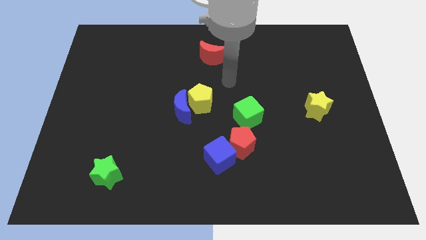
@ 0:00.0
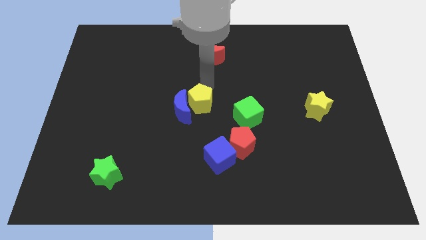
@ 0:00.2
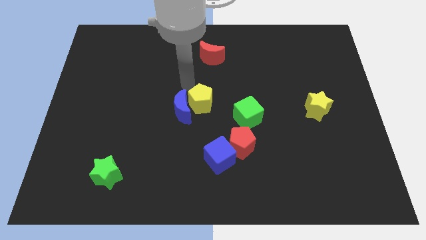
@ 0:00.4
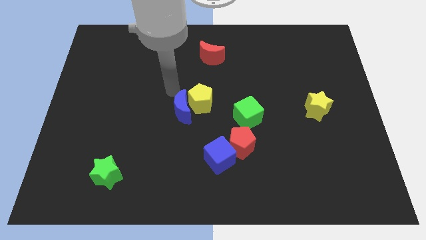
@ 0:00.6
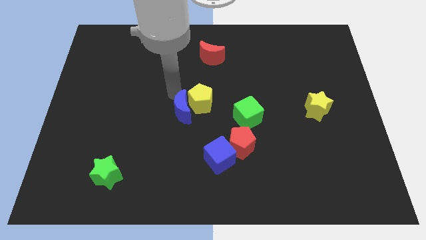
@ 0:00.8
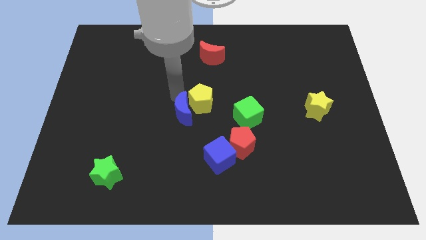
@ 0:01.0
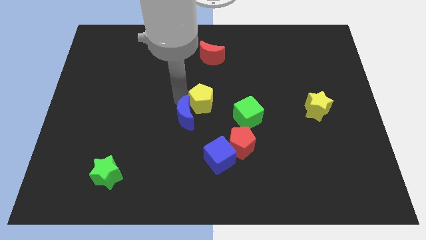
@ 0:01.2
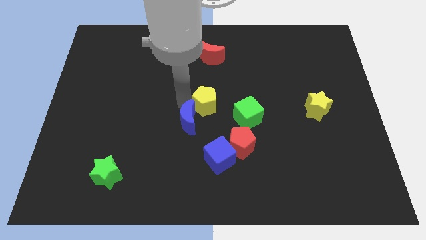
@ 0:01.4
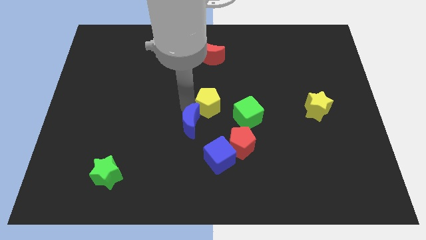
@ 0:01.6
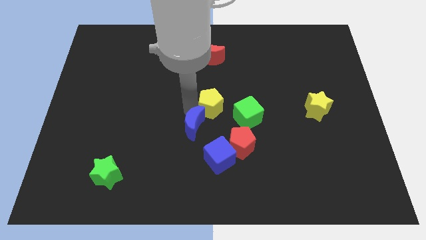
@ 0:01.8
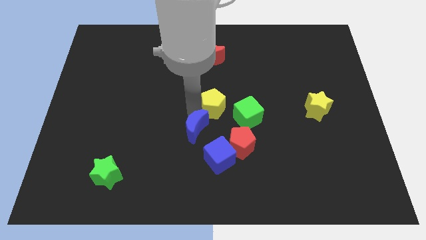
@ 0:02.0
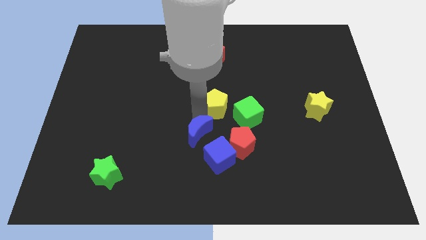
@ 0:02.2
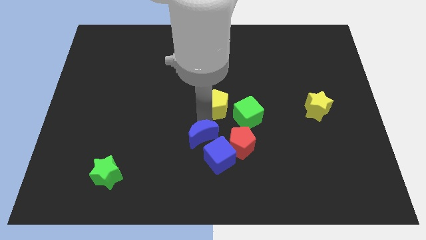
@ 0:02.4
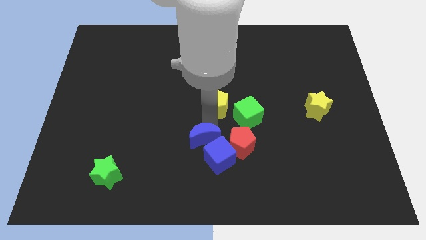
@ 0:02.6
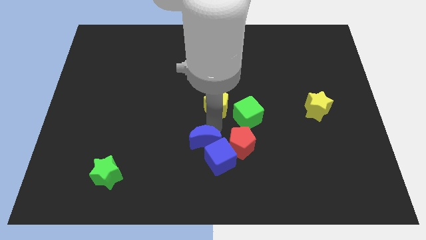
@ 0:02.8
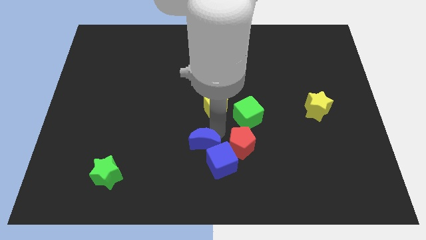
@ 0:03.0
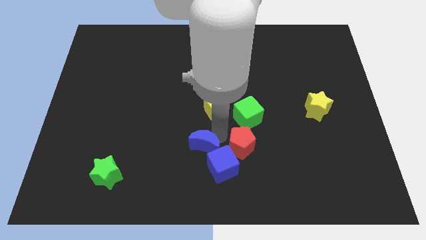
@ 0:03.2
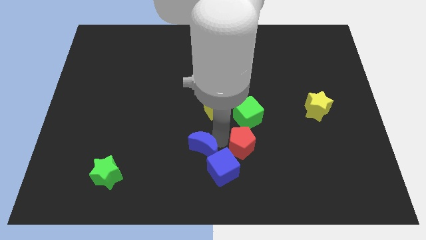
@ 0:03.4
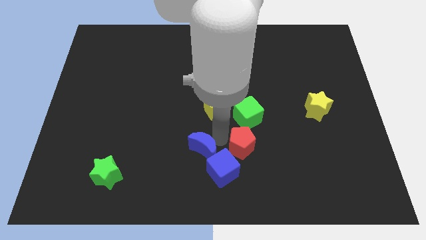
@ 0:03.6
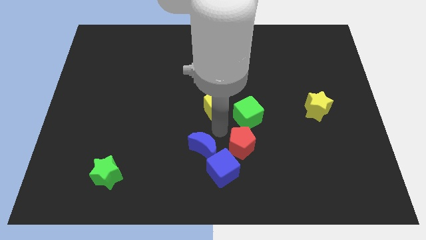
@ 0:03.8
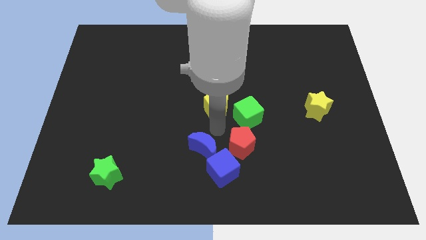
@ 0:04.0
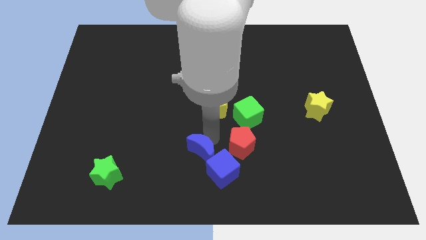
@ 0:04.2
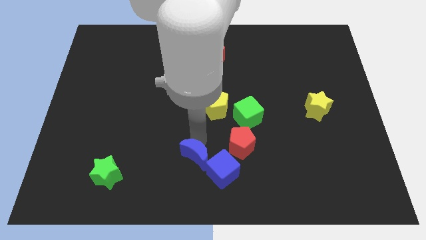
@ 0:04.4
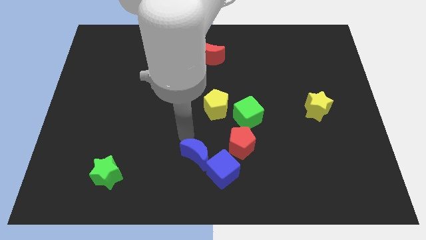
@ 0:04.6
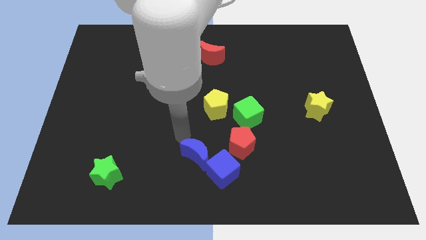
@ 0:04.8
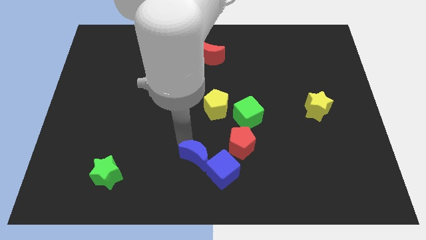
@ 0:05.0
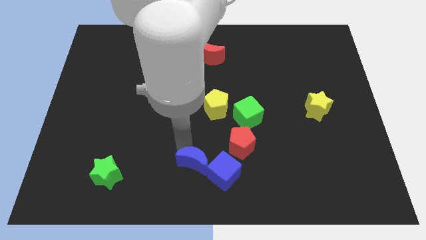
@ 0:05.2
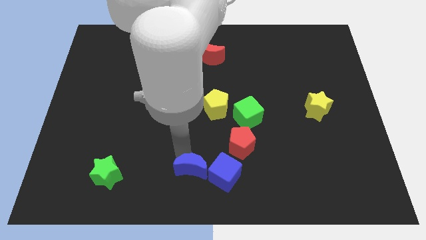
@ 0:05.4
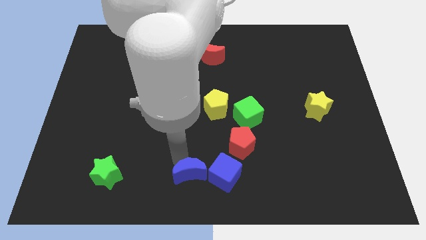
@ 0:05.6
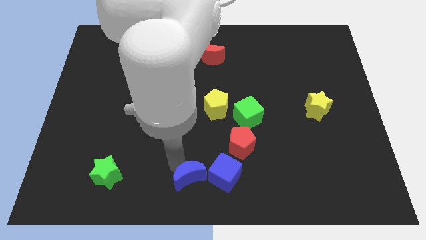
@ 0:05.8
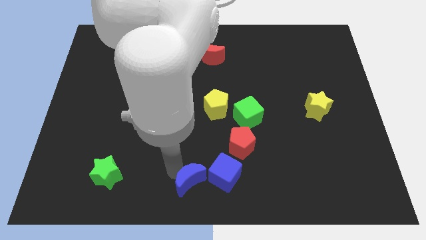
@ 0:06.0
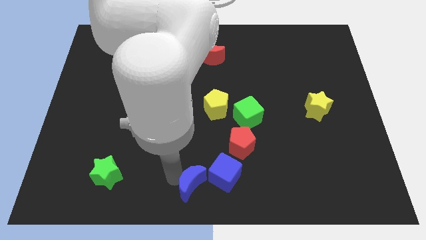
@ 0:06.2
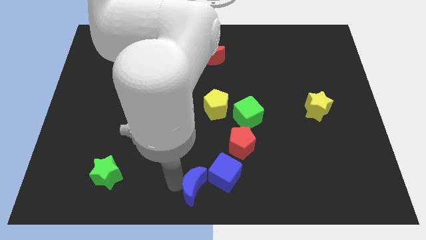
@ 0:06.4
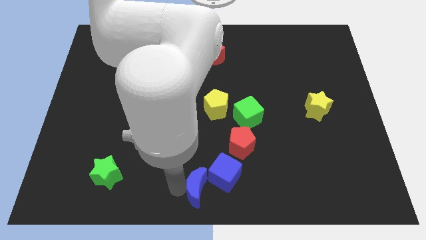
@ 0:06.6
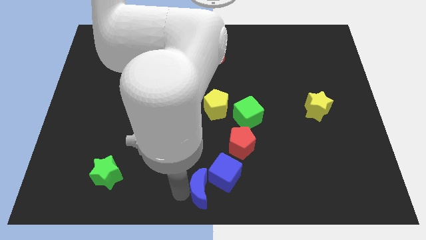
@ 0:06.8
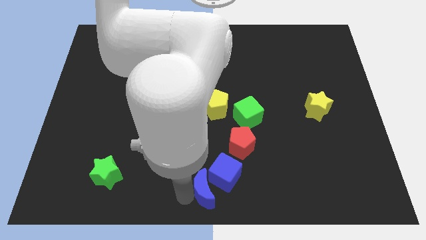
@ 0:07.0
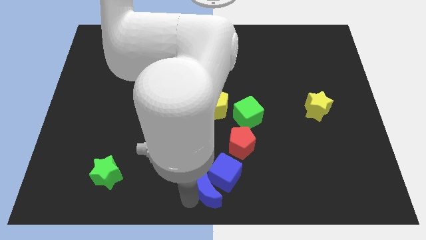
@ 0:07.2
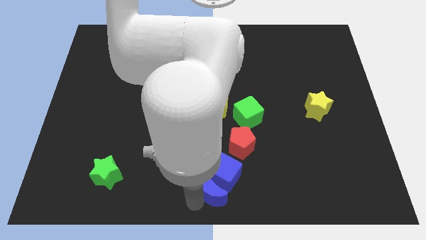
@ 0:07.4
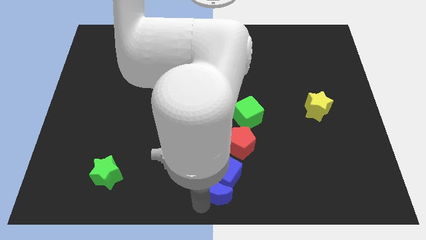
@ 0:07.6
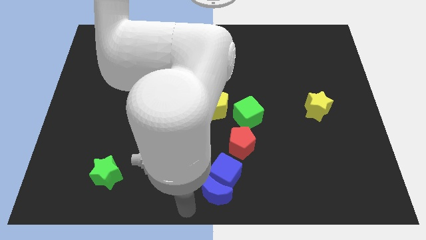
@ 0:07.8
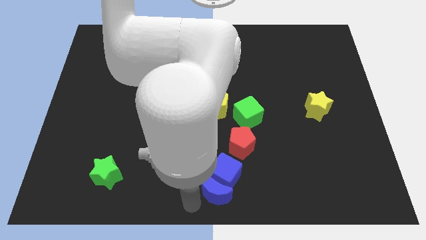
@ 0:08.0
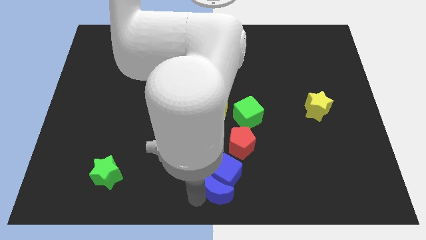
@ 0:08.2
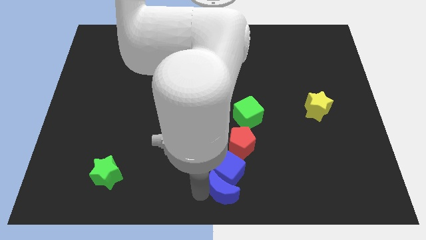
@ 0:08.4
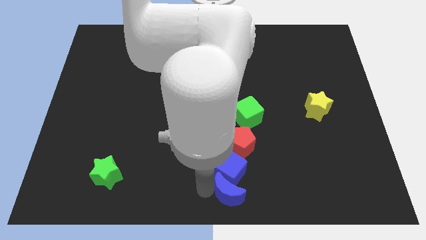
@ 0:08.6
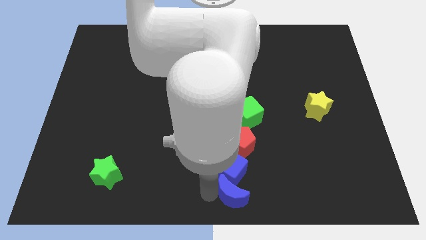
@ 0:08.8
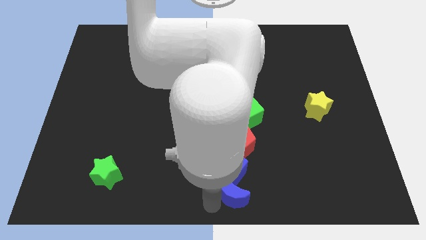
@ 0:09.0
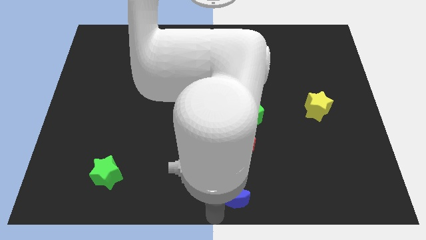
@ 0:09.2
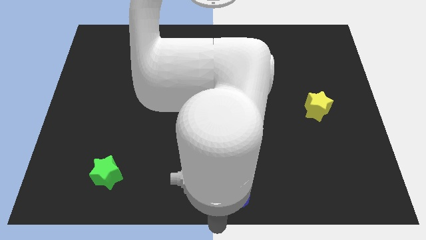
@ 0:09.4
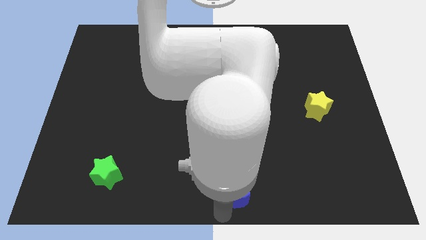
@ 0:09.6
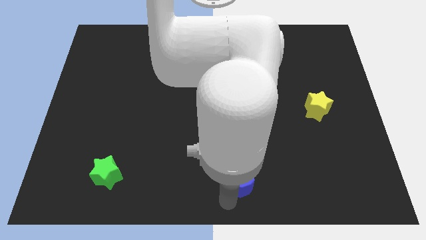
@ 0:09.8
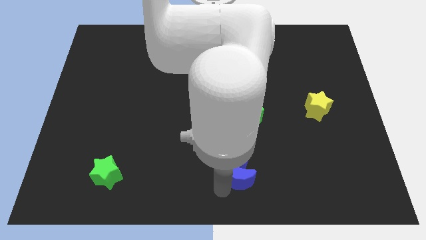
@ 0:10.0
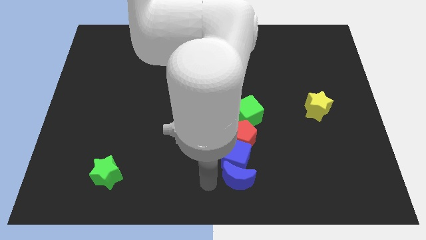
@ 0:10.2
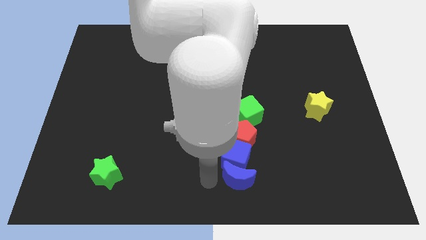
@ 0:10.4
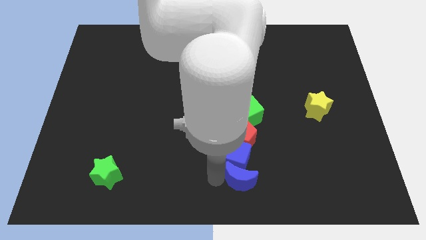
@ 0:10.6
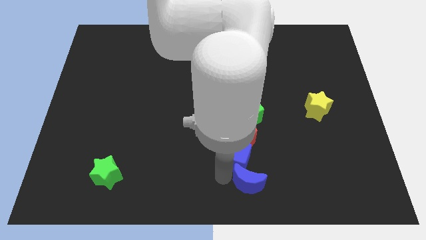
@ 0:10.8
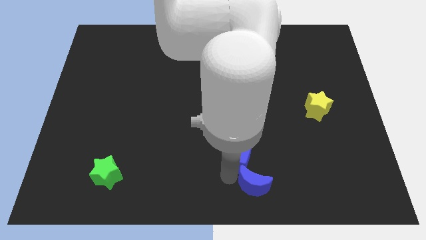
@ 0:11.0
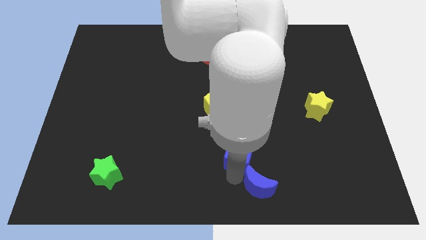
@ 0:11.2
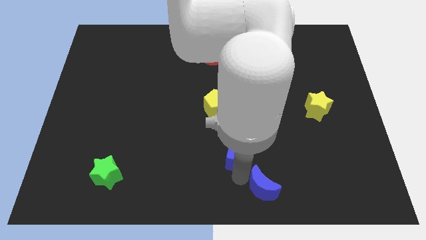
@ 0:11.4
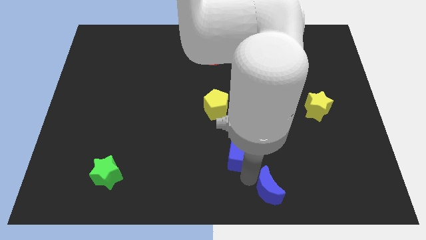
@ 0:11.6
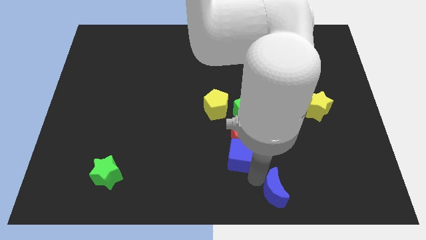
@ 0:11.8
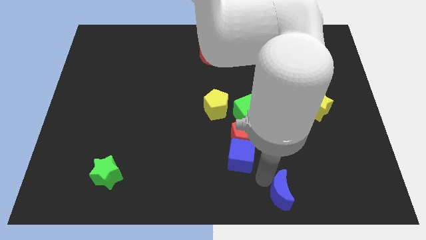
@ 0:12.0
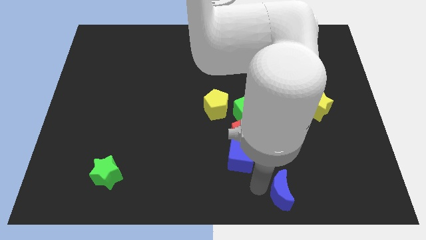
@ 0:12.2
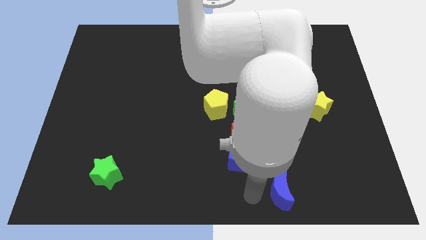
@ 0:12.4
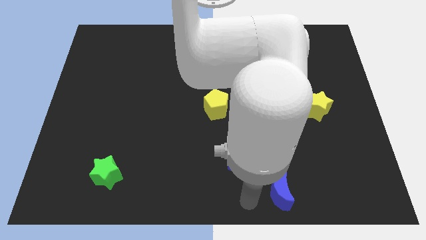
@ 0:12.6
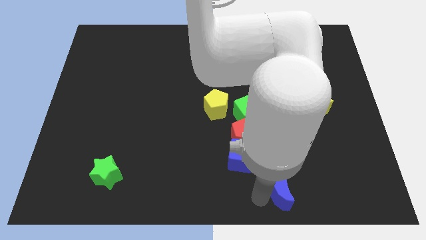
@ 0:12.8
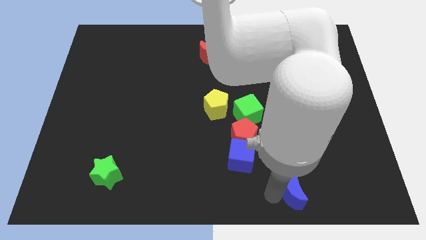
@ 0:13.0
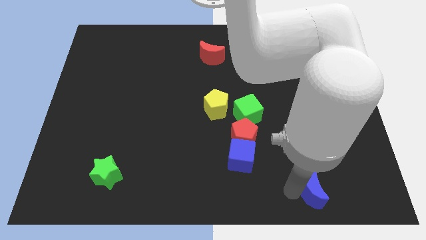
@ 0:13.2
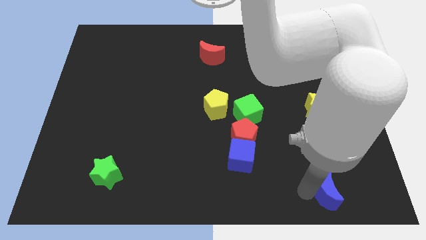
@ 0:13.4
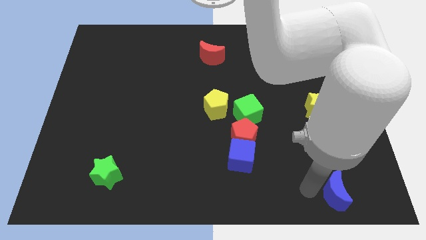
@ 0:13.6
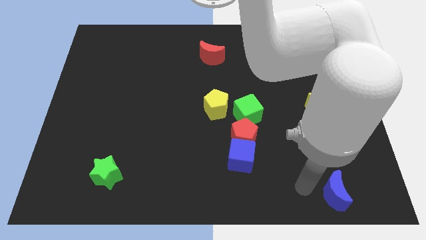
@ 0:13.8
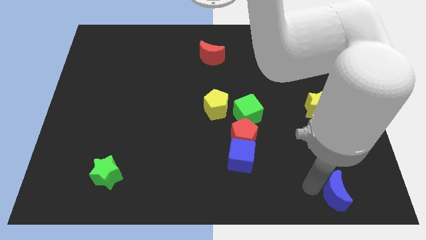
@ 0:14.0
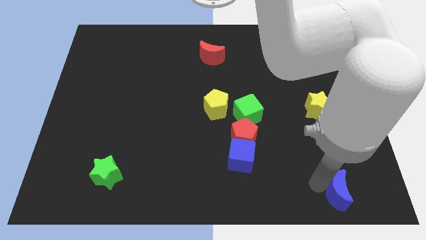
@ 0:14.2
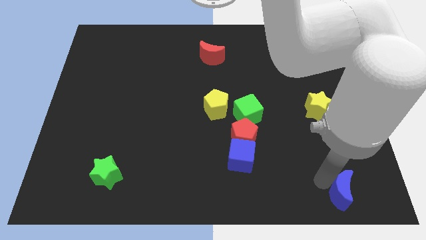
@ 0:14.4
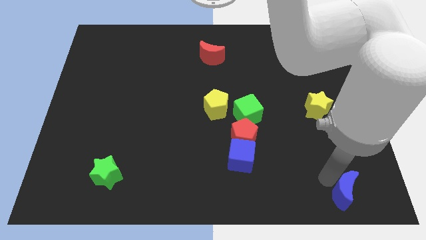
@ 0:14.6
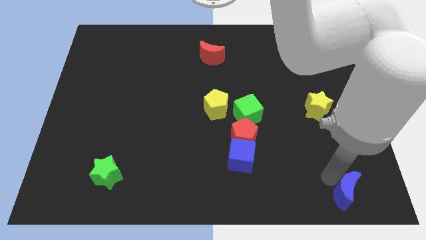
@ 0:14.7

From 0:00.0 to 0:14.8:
put the blue moon to the bottom right corner
